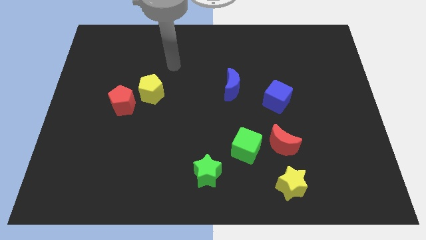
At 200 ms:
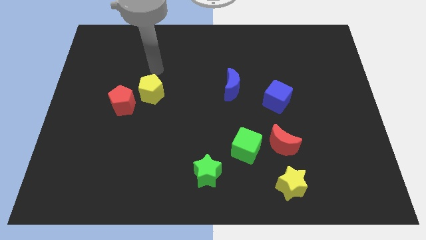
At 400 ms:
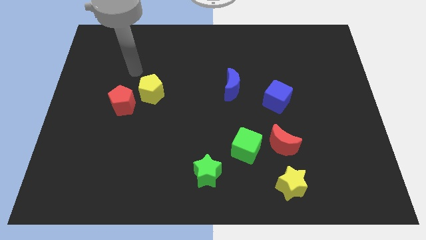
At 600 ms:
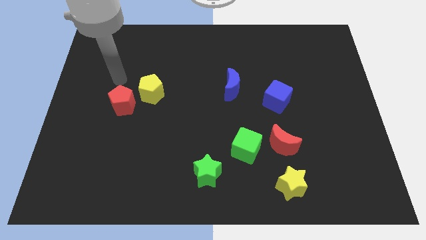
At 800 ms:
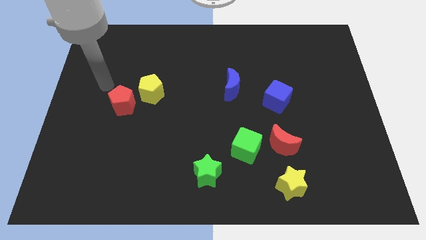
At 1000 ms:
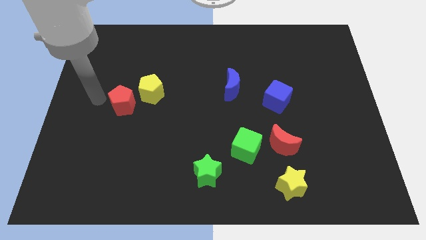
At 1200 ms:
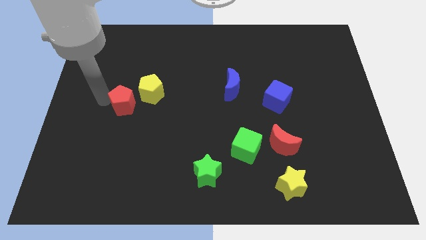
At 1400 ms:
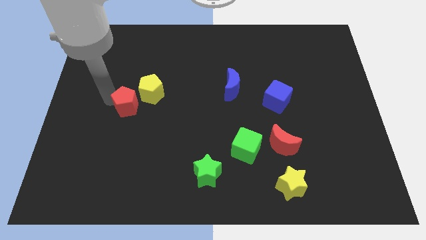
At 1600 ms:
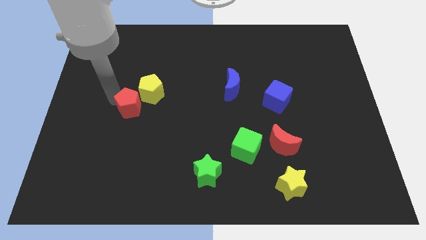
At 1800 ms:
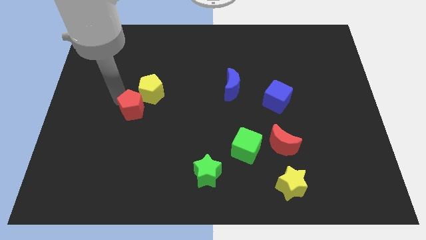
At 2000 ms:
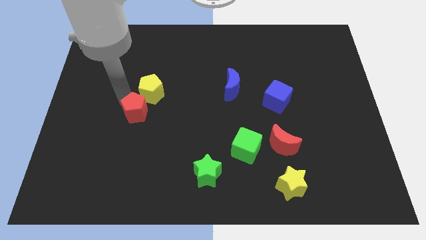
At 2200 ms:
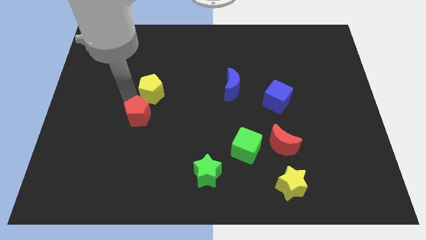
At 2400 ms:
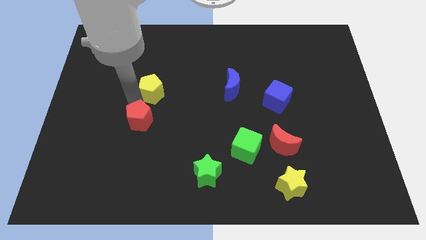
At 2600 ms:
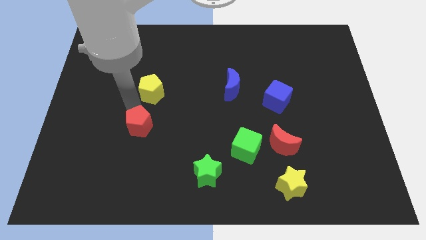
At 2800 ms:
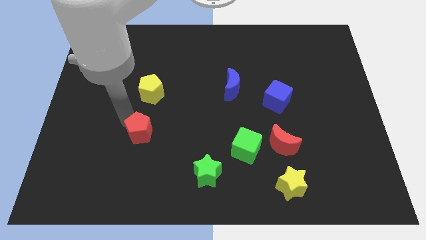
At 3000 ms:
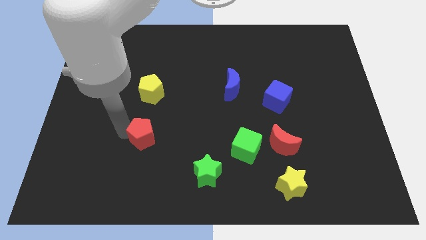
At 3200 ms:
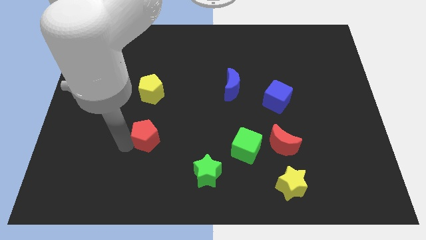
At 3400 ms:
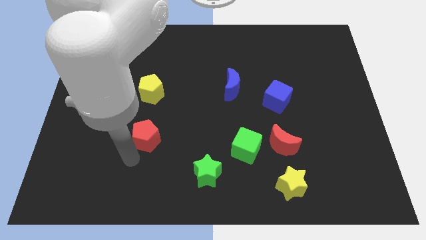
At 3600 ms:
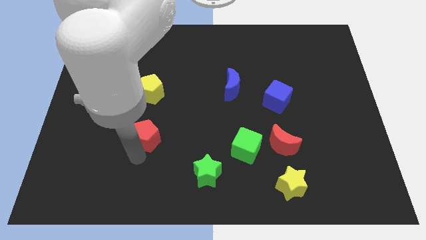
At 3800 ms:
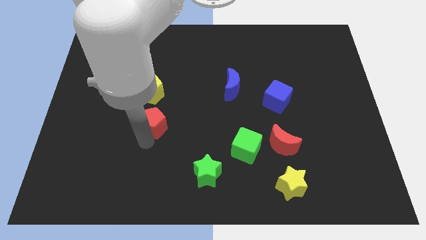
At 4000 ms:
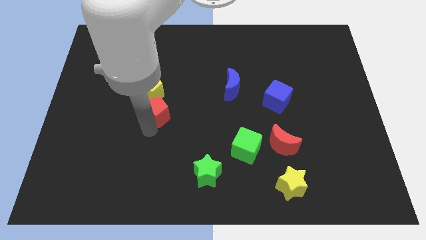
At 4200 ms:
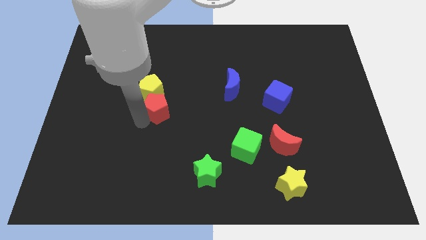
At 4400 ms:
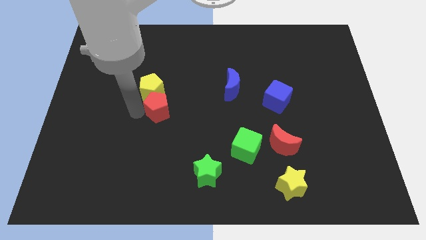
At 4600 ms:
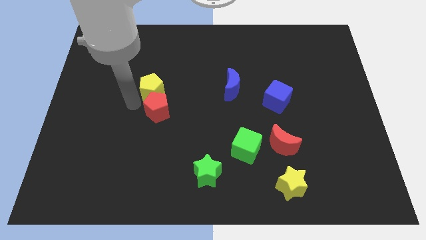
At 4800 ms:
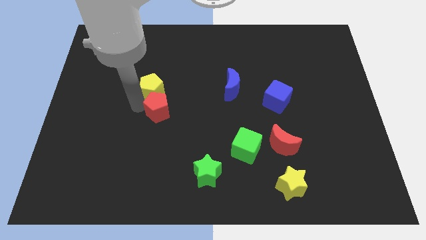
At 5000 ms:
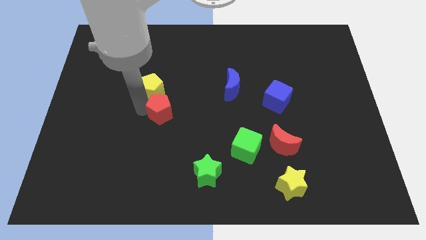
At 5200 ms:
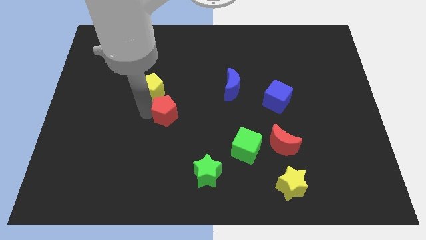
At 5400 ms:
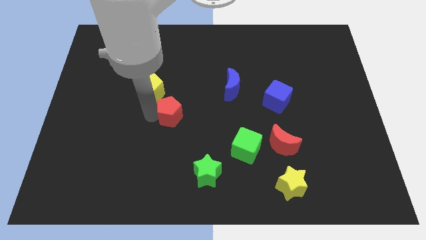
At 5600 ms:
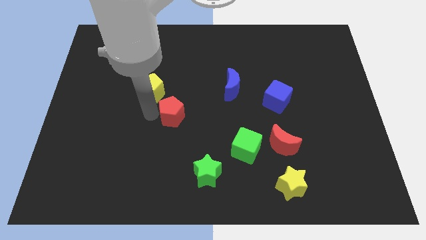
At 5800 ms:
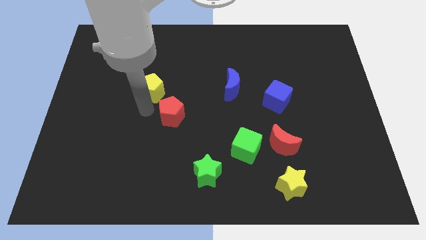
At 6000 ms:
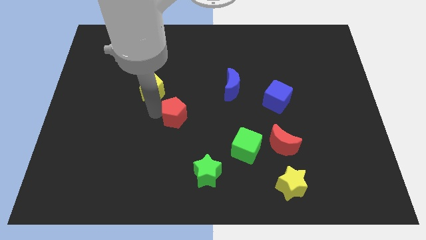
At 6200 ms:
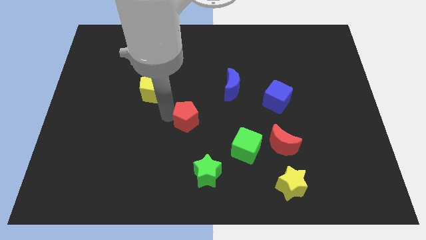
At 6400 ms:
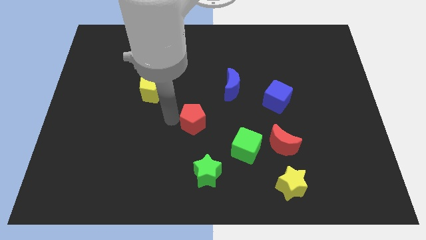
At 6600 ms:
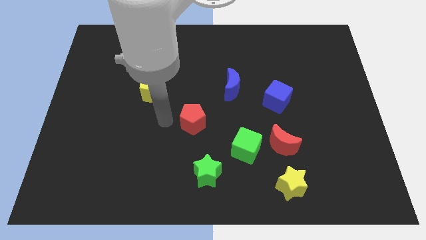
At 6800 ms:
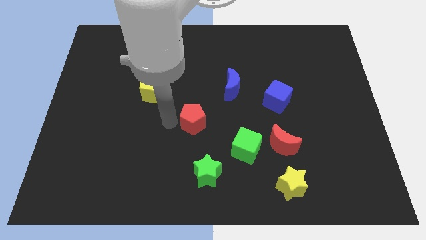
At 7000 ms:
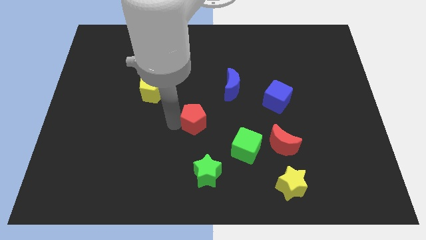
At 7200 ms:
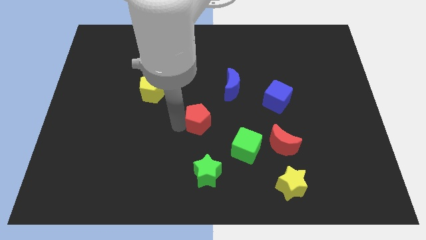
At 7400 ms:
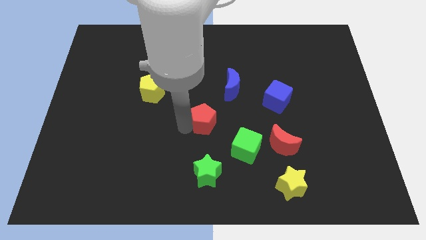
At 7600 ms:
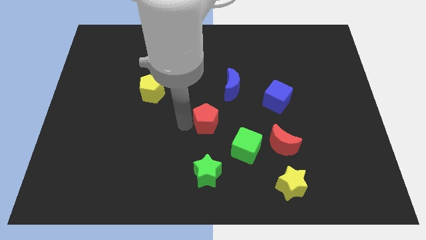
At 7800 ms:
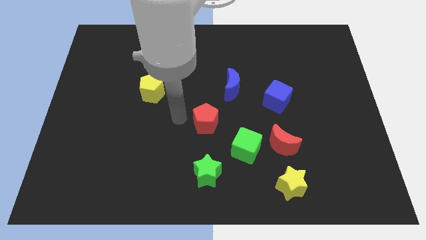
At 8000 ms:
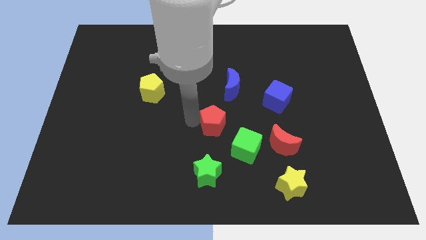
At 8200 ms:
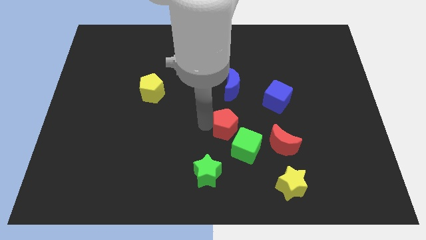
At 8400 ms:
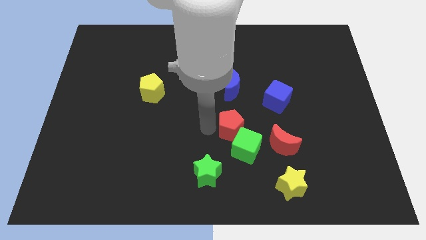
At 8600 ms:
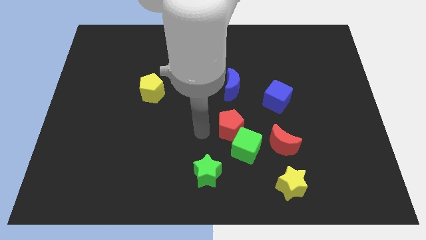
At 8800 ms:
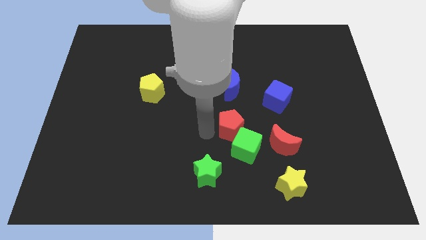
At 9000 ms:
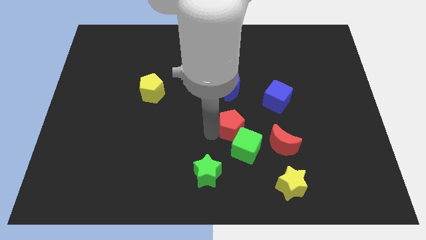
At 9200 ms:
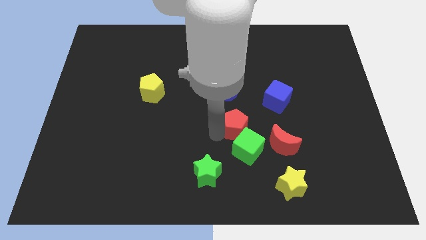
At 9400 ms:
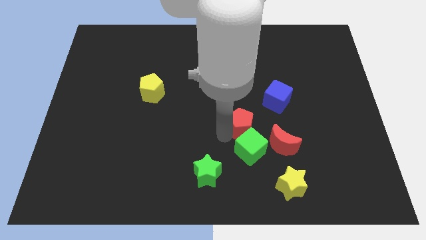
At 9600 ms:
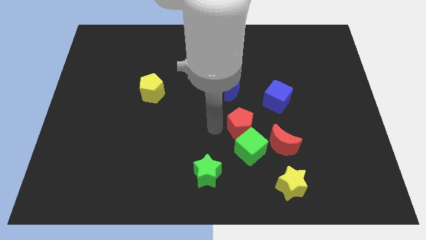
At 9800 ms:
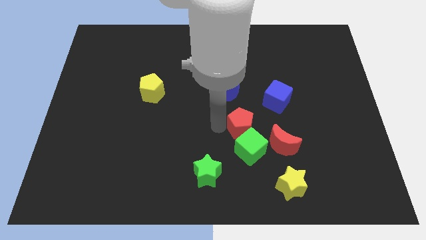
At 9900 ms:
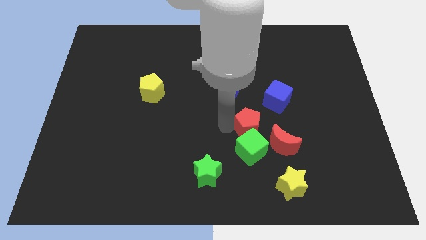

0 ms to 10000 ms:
move the red pentagon diagonally up and to the right of the green cube

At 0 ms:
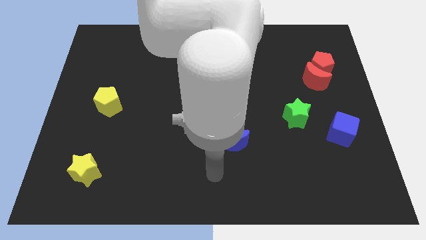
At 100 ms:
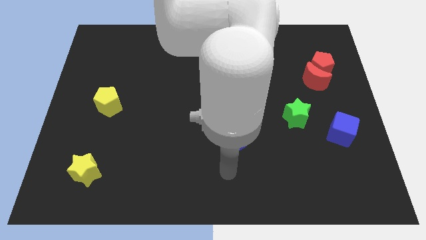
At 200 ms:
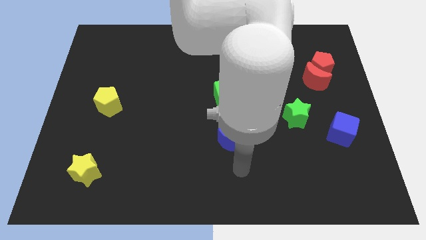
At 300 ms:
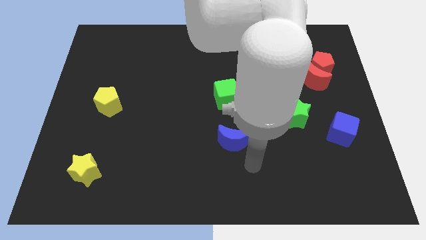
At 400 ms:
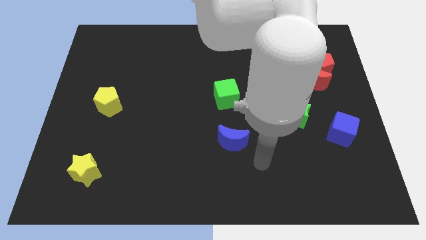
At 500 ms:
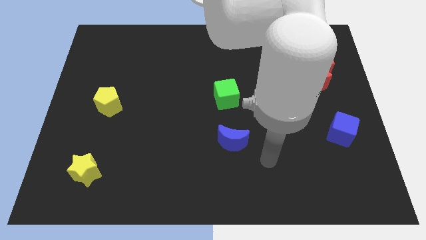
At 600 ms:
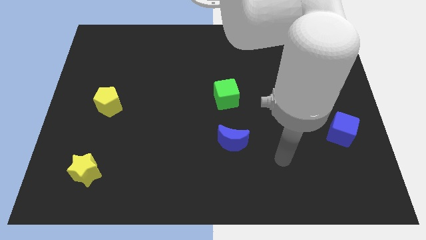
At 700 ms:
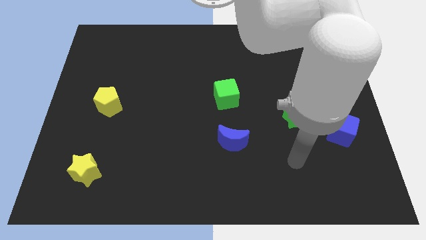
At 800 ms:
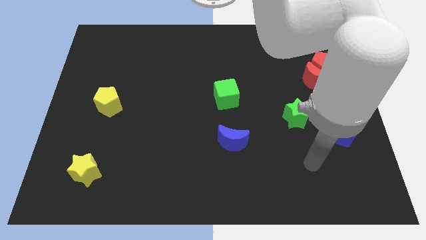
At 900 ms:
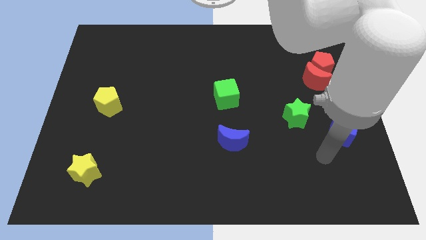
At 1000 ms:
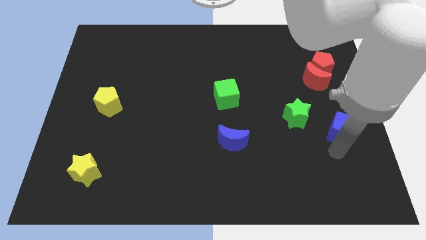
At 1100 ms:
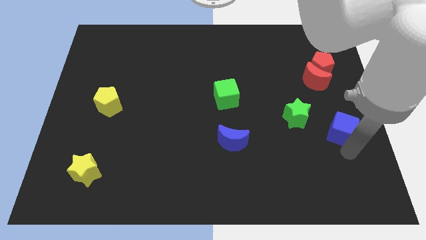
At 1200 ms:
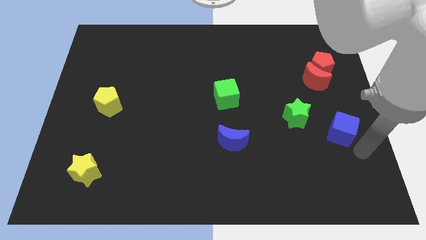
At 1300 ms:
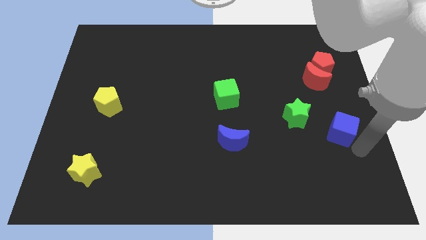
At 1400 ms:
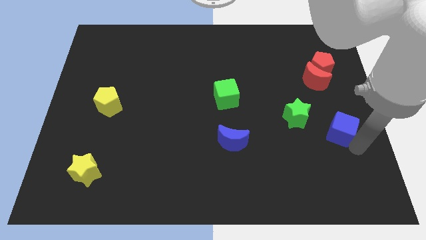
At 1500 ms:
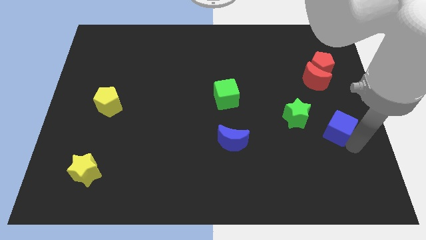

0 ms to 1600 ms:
push the blue cube to the bottom side of the red moon

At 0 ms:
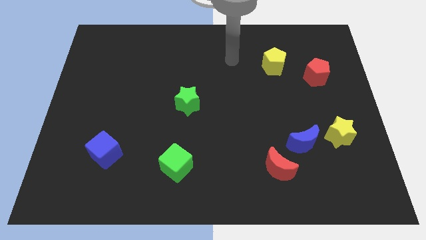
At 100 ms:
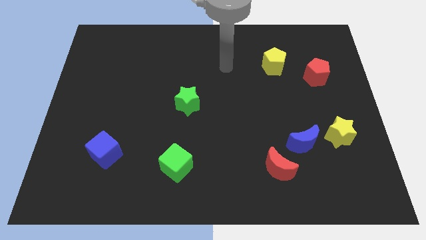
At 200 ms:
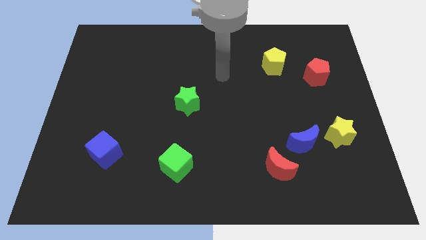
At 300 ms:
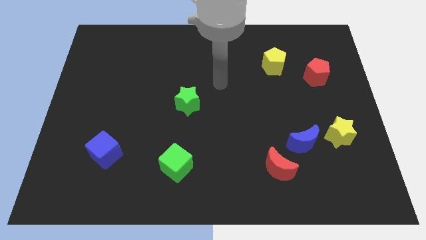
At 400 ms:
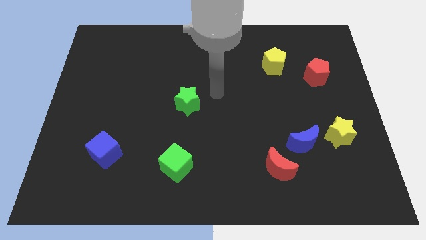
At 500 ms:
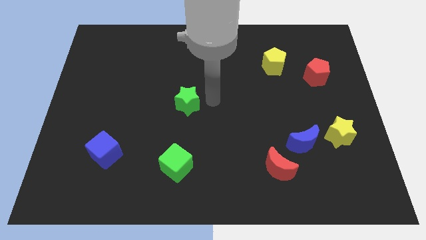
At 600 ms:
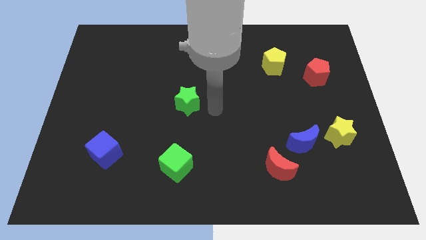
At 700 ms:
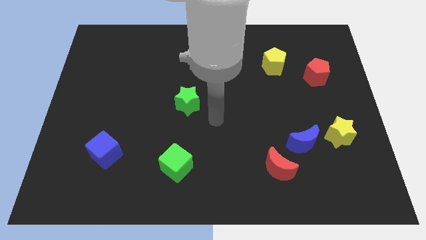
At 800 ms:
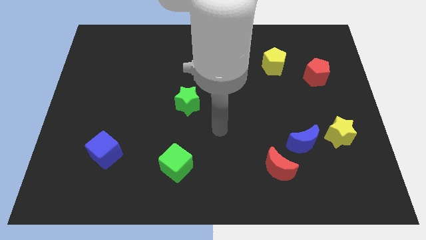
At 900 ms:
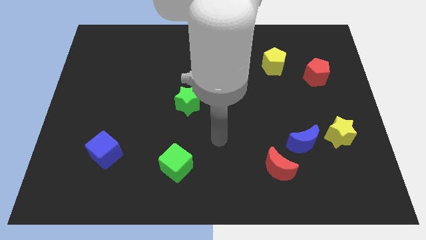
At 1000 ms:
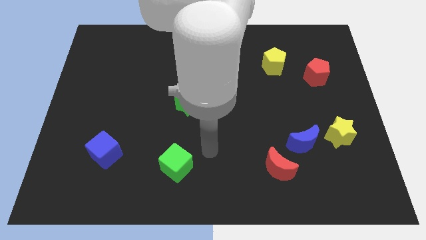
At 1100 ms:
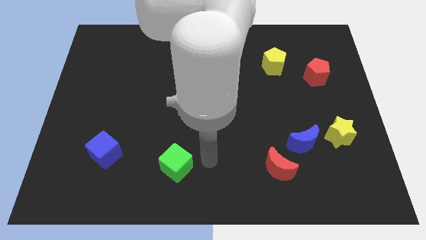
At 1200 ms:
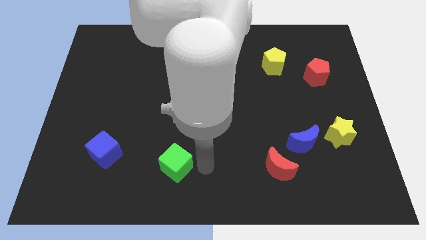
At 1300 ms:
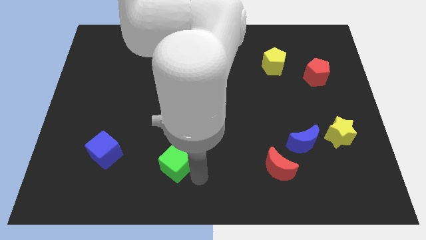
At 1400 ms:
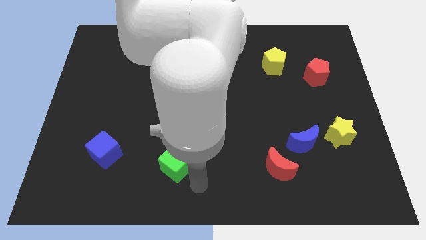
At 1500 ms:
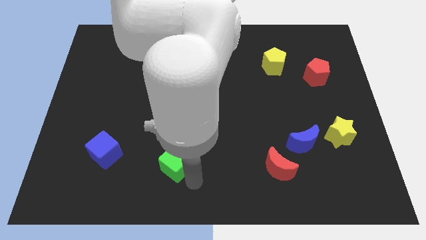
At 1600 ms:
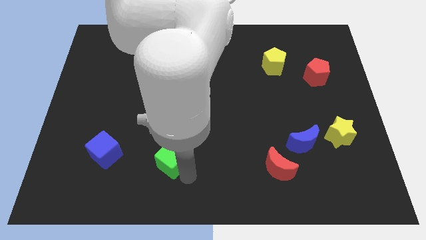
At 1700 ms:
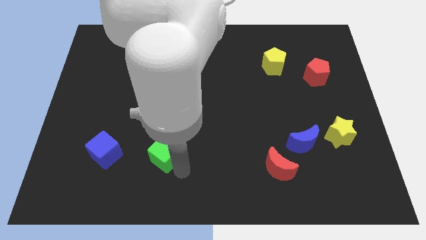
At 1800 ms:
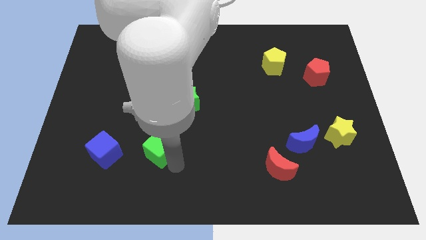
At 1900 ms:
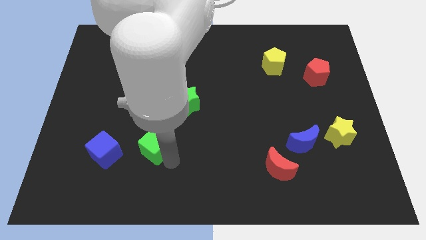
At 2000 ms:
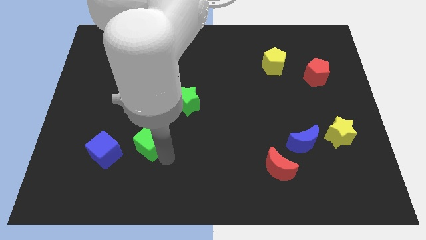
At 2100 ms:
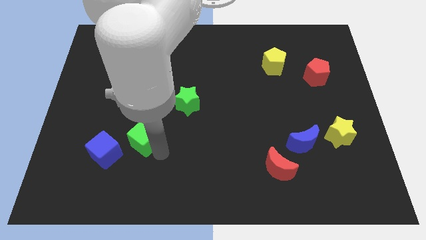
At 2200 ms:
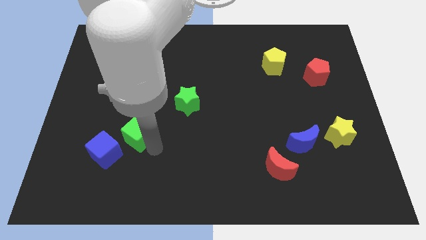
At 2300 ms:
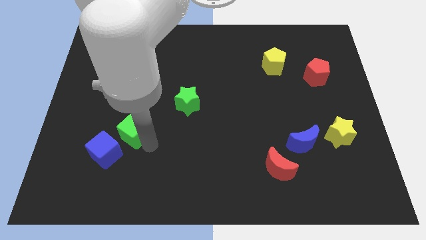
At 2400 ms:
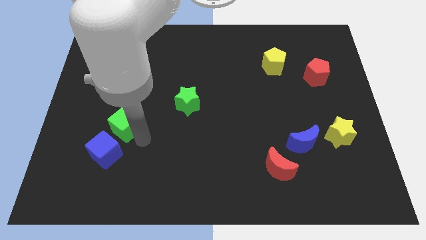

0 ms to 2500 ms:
push the green cube to the top of the blue cube
